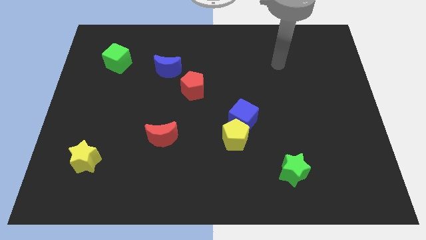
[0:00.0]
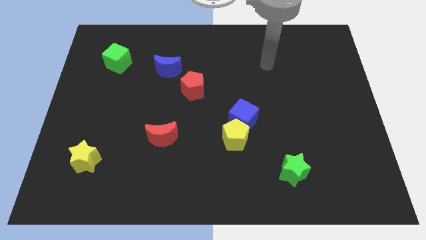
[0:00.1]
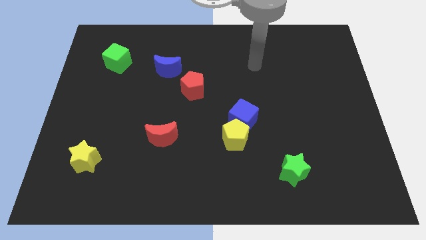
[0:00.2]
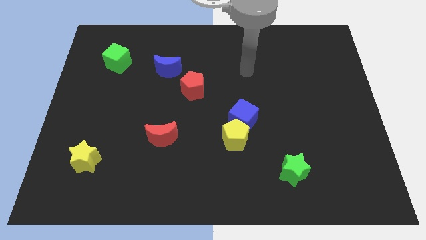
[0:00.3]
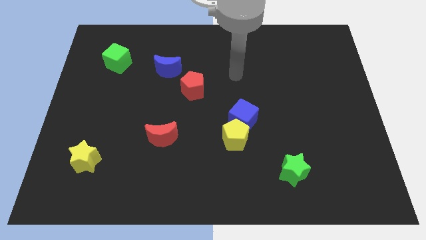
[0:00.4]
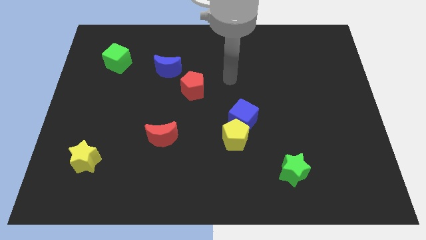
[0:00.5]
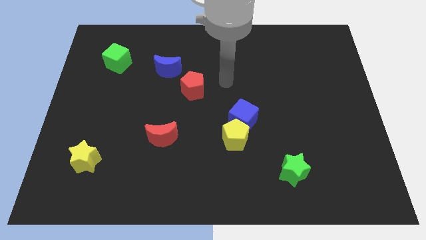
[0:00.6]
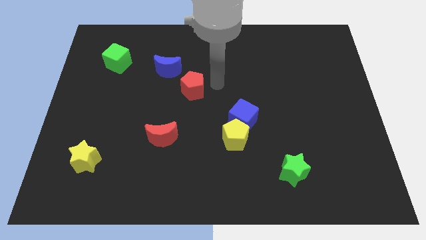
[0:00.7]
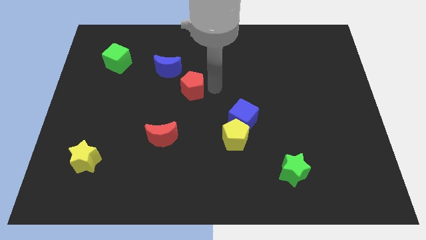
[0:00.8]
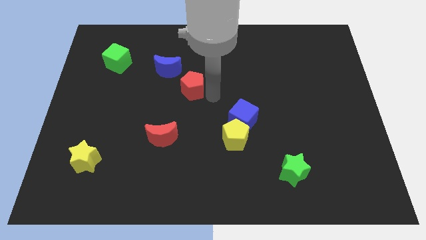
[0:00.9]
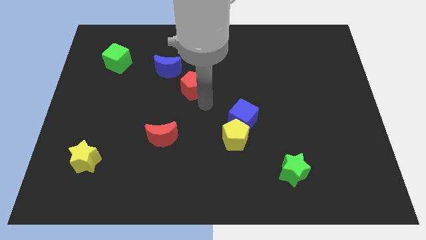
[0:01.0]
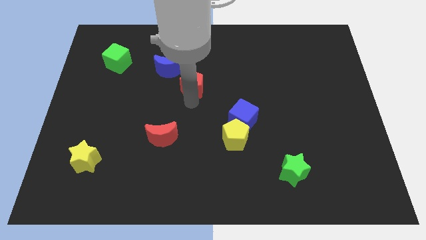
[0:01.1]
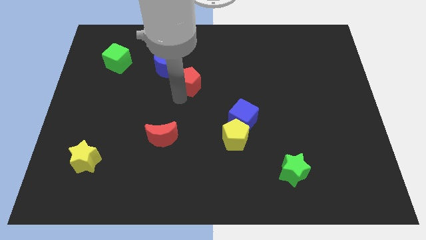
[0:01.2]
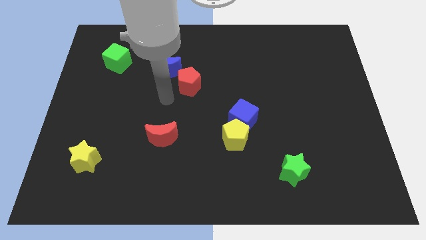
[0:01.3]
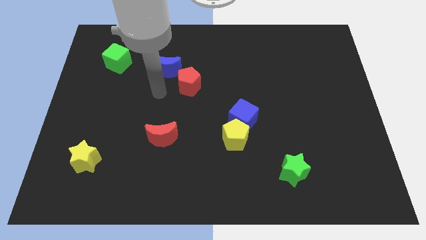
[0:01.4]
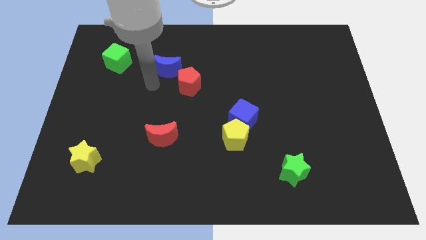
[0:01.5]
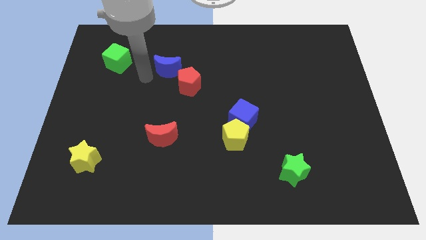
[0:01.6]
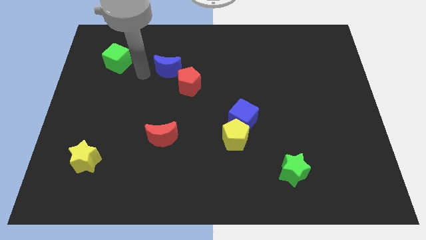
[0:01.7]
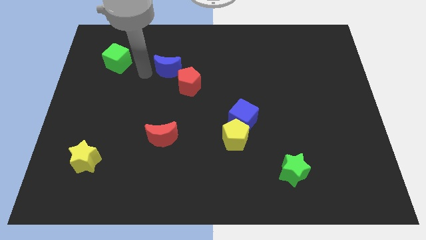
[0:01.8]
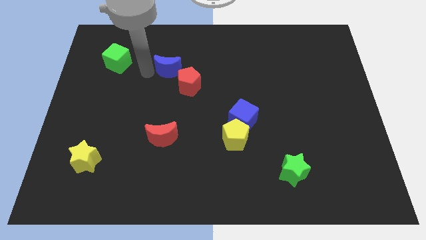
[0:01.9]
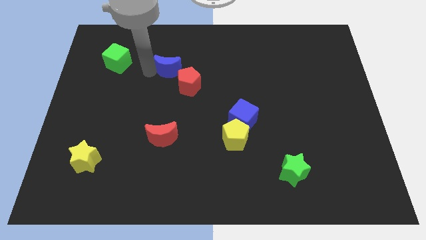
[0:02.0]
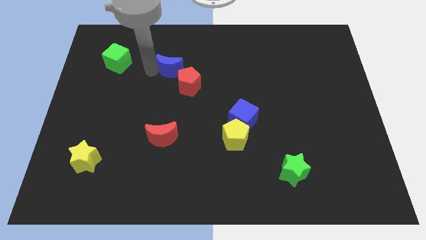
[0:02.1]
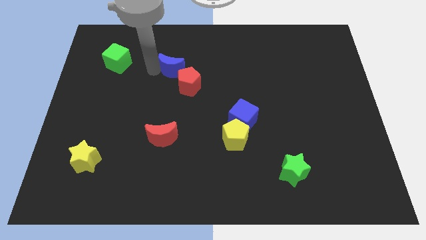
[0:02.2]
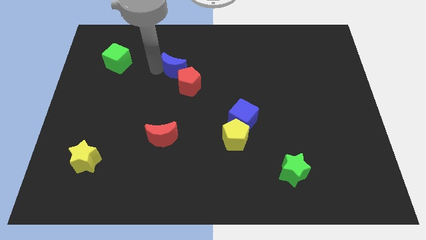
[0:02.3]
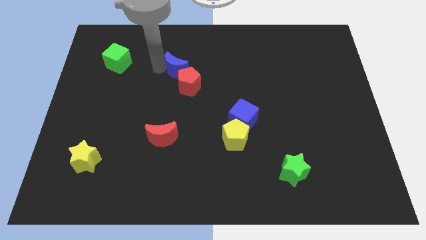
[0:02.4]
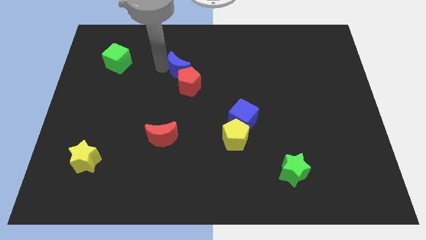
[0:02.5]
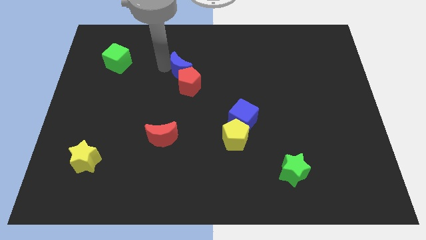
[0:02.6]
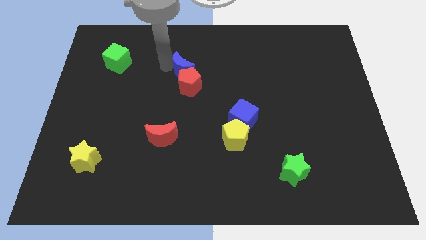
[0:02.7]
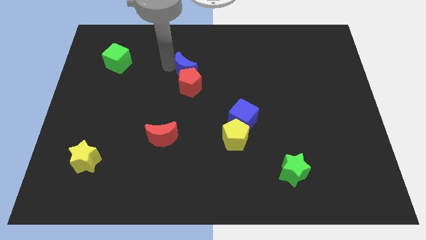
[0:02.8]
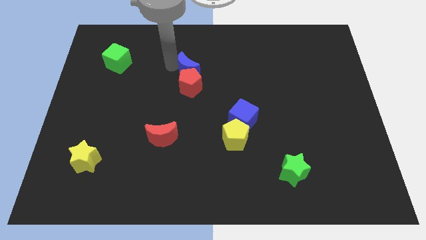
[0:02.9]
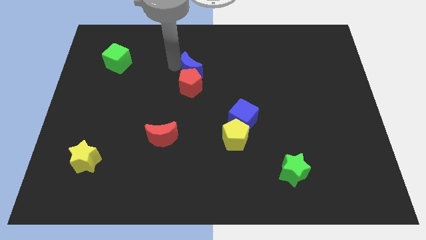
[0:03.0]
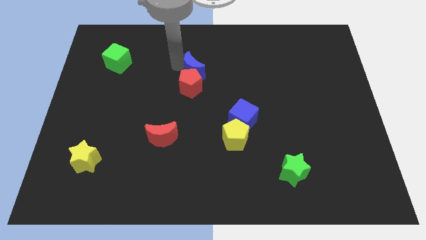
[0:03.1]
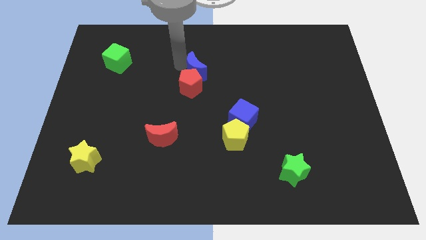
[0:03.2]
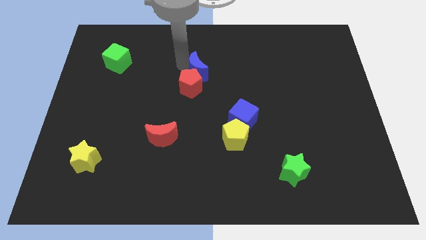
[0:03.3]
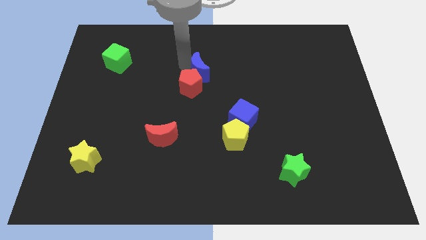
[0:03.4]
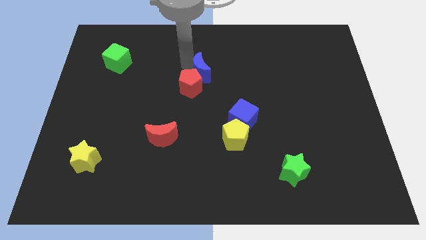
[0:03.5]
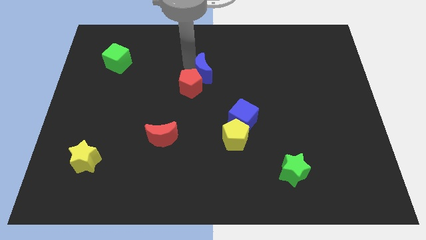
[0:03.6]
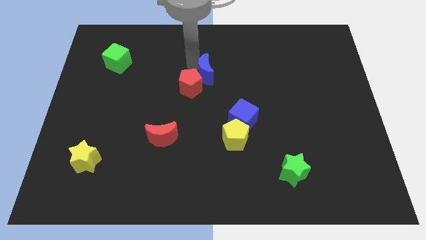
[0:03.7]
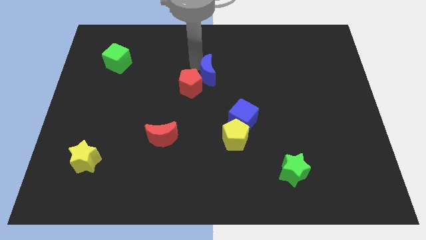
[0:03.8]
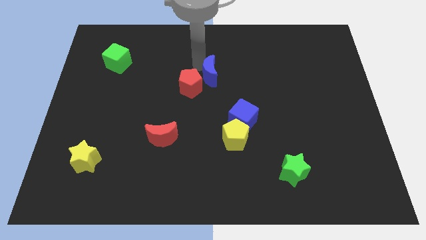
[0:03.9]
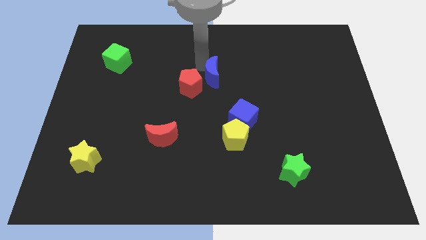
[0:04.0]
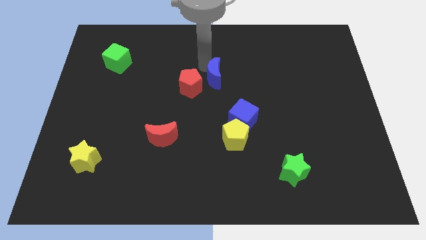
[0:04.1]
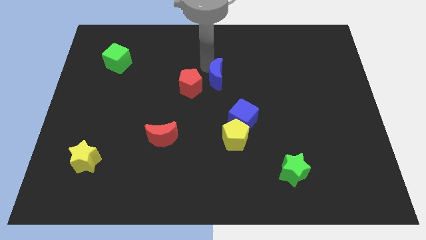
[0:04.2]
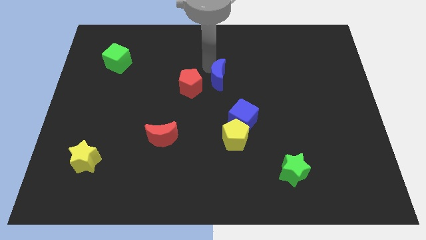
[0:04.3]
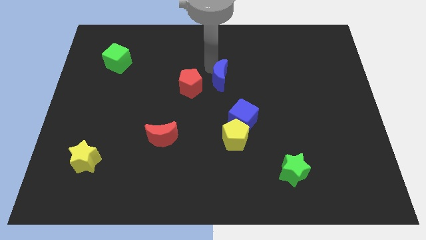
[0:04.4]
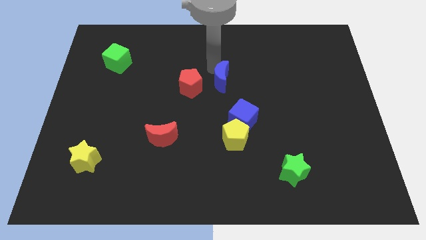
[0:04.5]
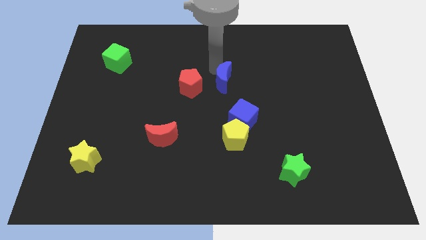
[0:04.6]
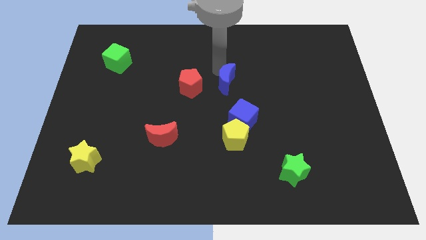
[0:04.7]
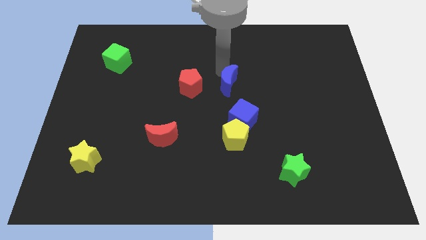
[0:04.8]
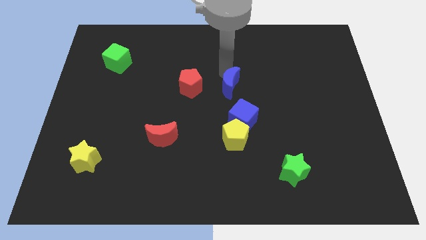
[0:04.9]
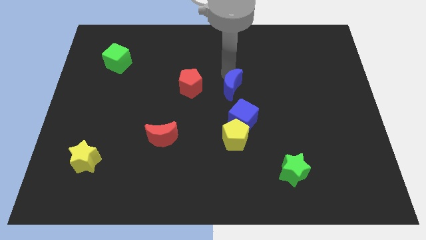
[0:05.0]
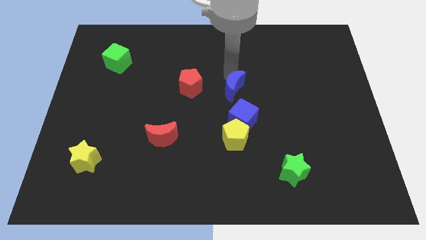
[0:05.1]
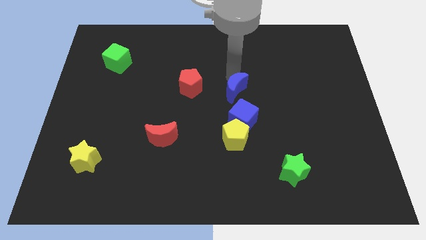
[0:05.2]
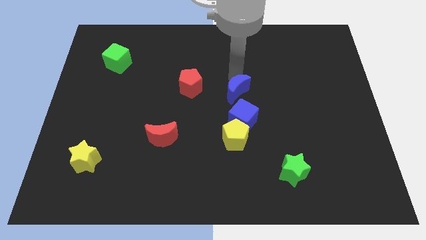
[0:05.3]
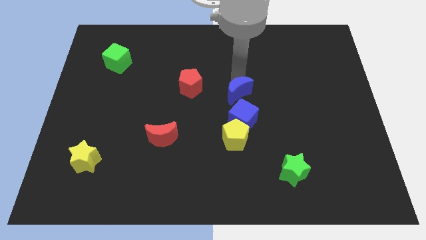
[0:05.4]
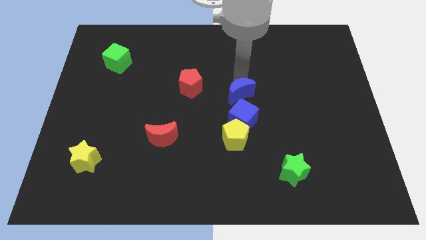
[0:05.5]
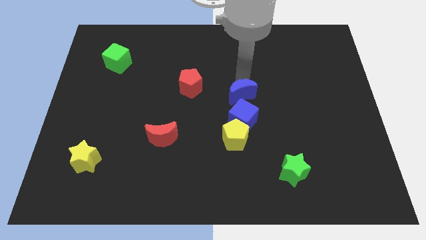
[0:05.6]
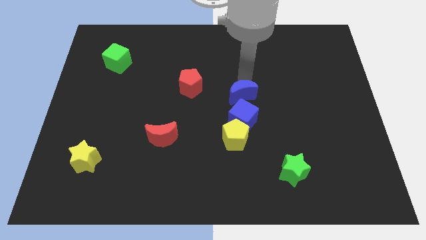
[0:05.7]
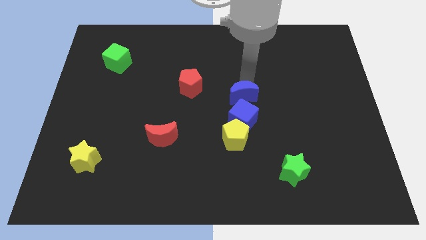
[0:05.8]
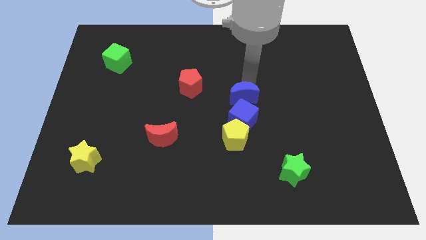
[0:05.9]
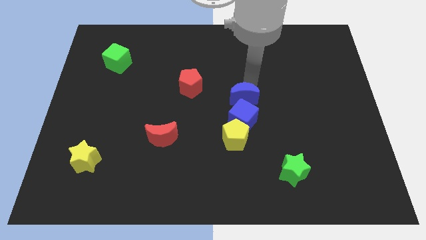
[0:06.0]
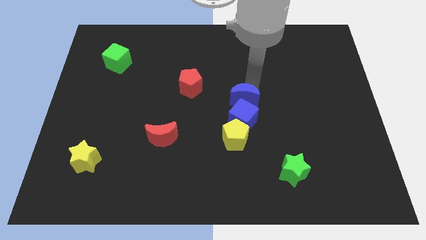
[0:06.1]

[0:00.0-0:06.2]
move the blue moon to the blue cube

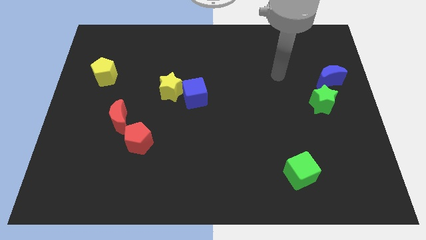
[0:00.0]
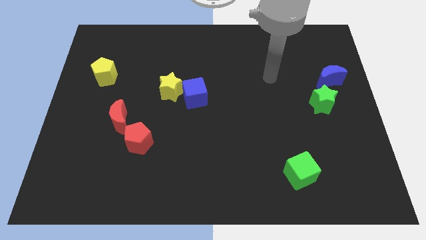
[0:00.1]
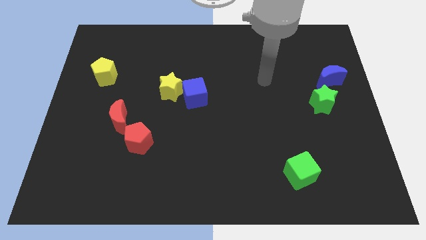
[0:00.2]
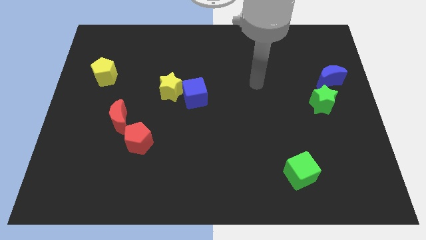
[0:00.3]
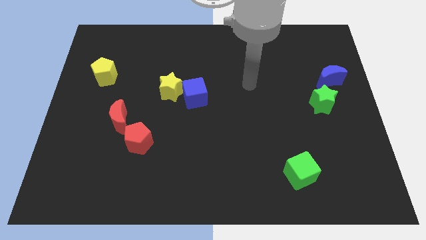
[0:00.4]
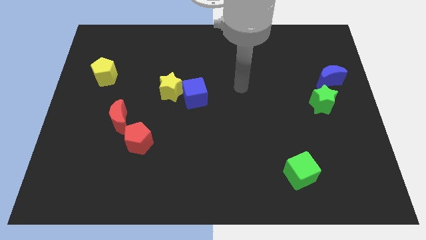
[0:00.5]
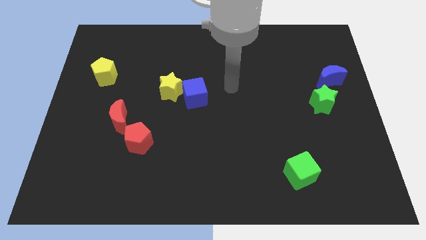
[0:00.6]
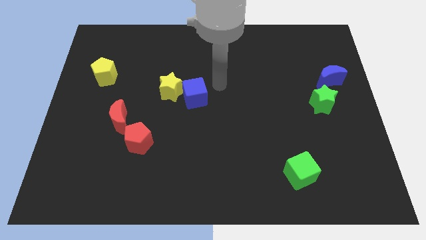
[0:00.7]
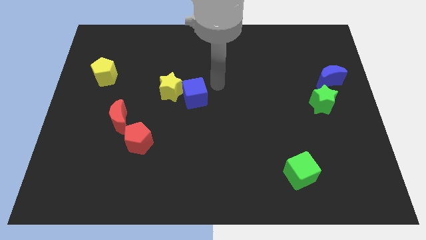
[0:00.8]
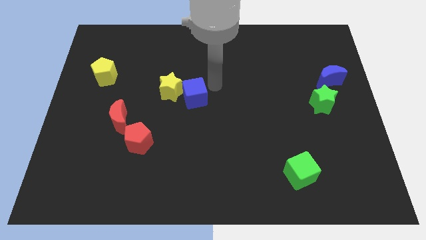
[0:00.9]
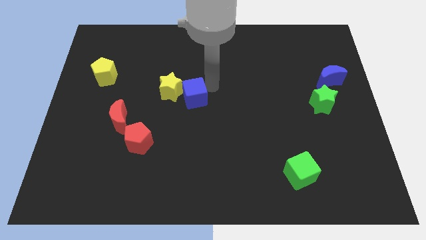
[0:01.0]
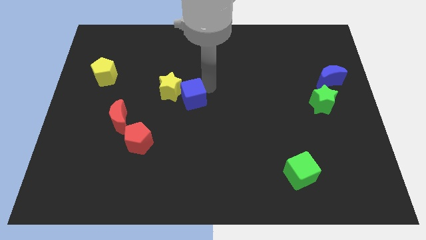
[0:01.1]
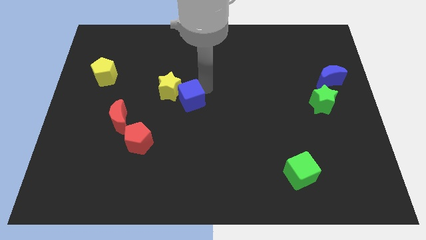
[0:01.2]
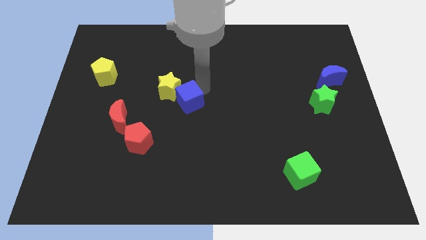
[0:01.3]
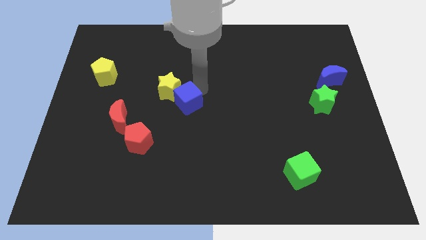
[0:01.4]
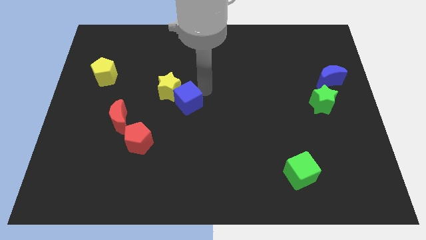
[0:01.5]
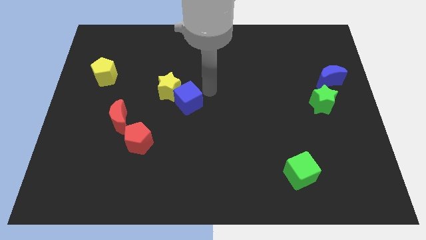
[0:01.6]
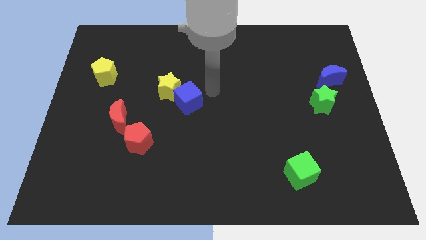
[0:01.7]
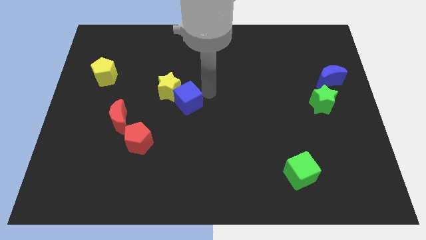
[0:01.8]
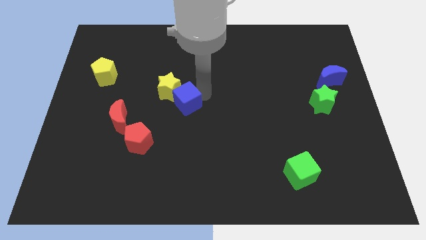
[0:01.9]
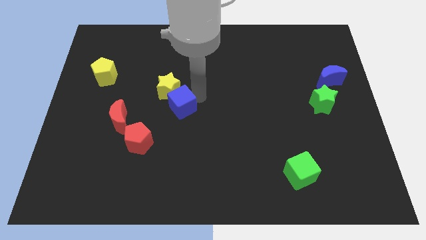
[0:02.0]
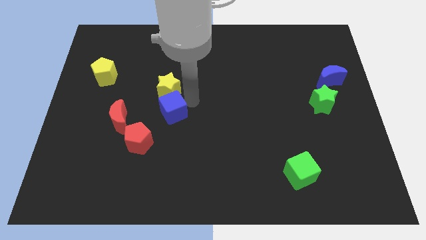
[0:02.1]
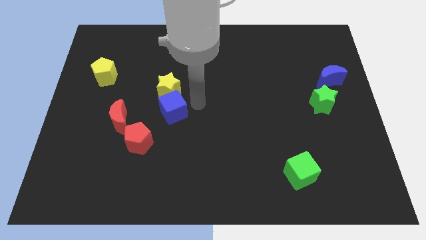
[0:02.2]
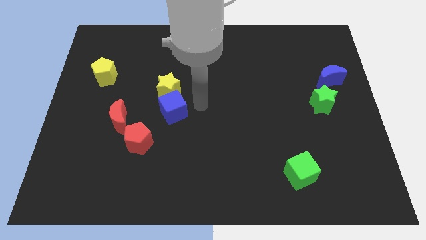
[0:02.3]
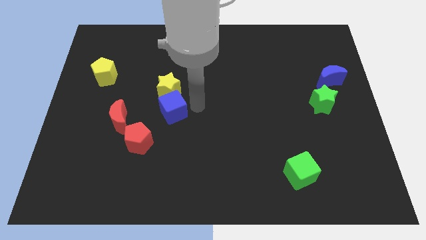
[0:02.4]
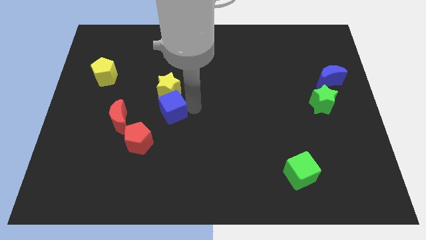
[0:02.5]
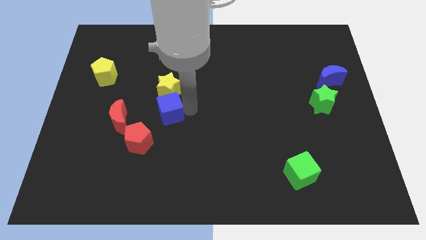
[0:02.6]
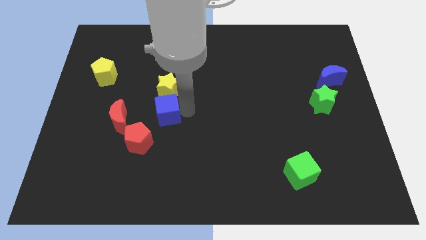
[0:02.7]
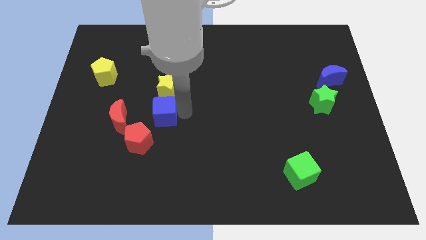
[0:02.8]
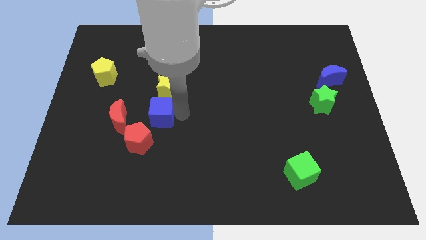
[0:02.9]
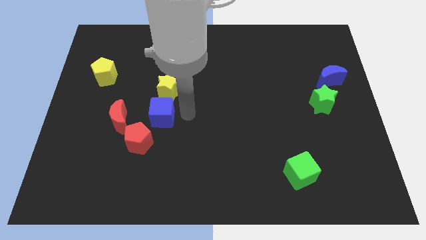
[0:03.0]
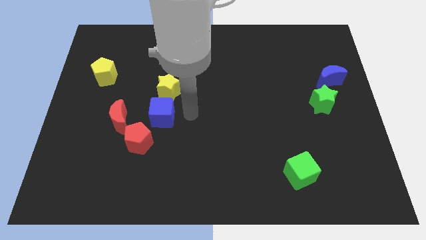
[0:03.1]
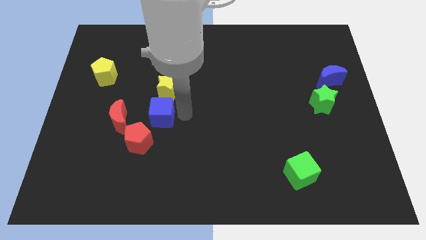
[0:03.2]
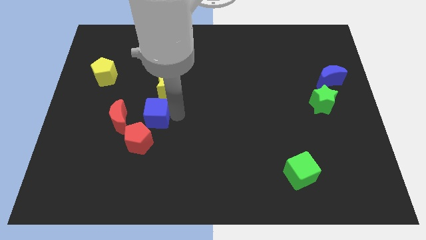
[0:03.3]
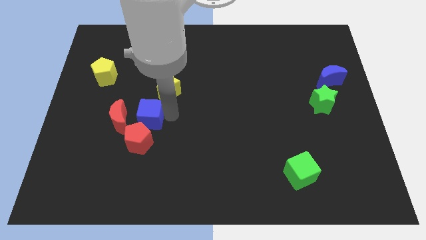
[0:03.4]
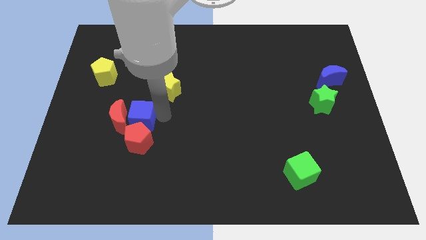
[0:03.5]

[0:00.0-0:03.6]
move the blue cube next to the red moon
